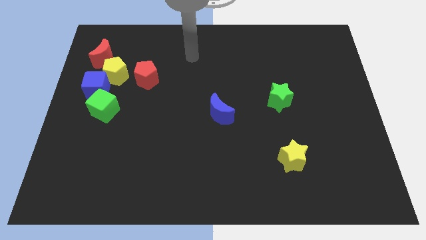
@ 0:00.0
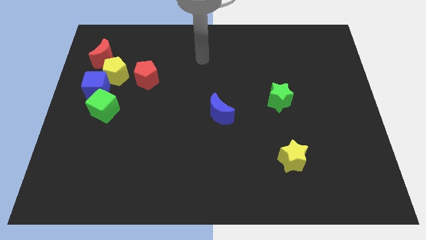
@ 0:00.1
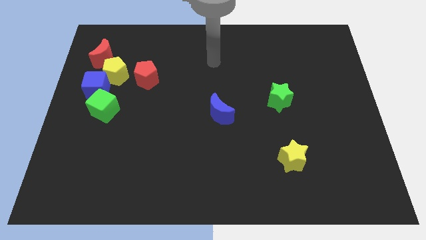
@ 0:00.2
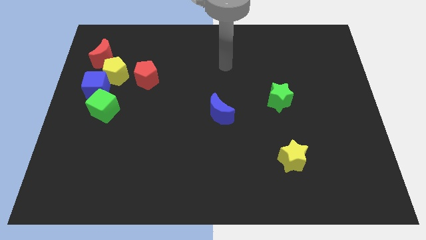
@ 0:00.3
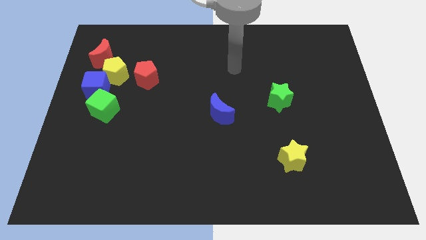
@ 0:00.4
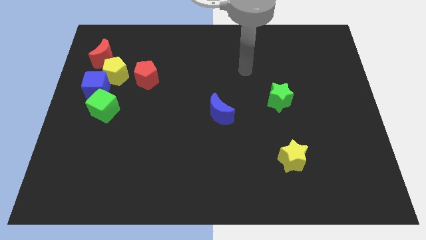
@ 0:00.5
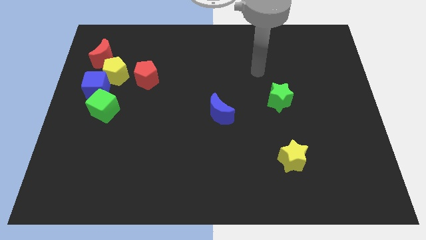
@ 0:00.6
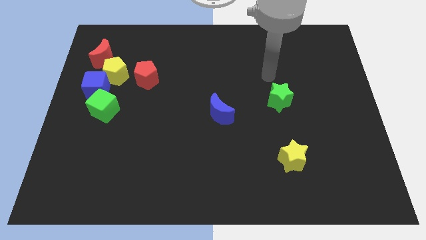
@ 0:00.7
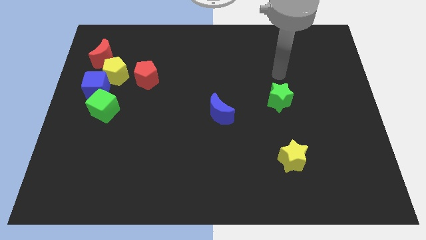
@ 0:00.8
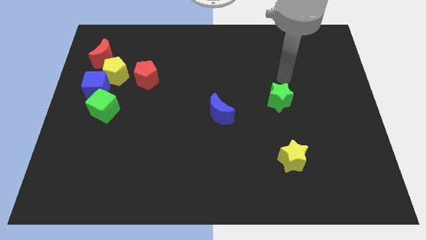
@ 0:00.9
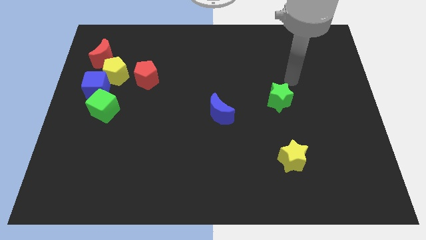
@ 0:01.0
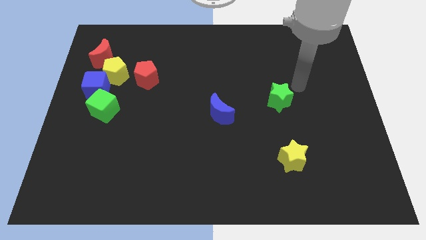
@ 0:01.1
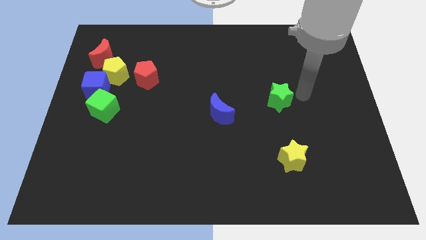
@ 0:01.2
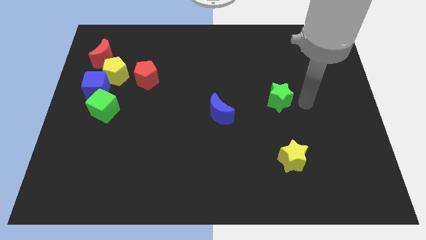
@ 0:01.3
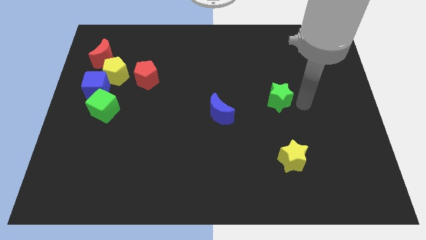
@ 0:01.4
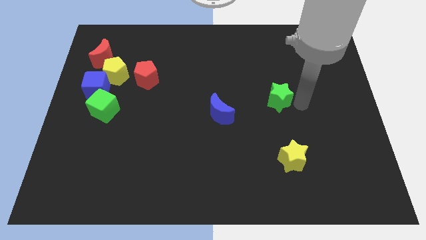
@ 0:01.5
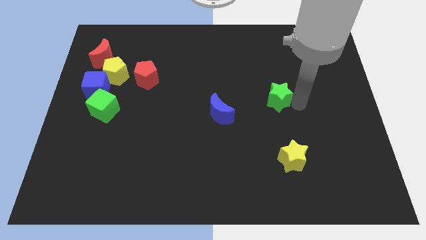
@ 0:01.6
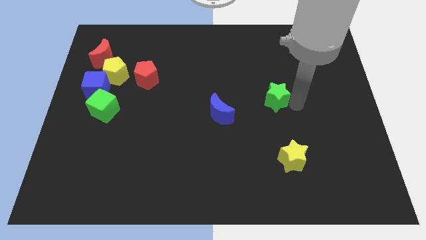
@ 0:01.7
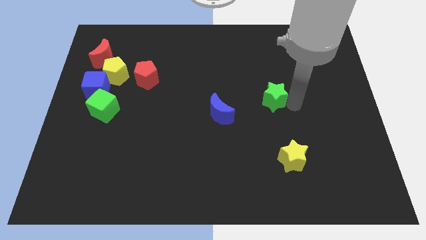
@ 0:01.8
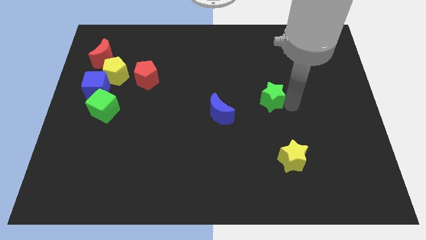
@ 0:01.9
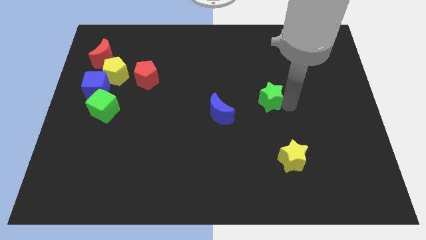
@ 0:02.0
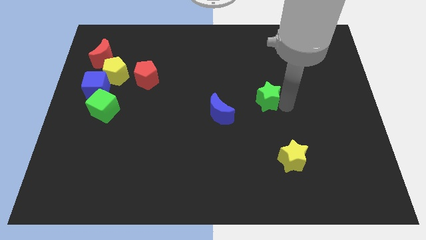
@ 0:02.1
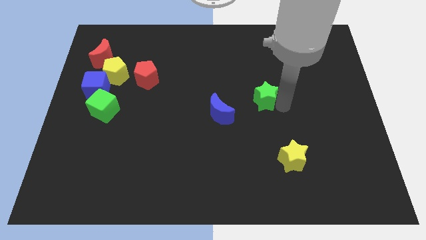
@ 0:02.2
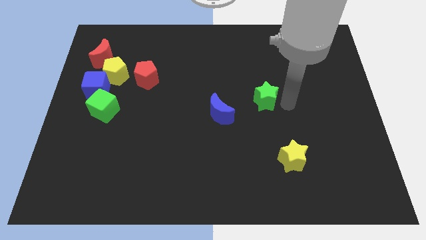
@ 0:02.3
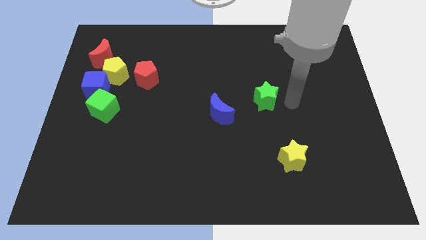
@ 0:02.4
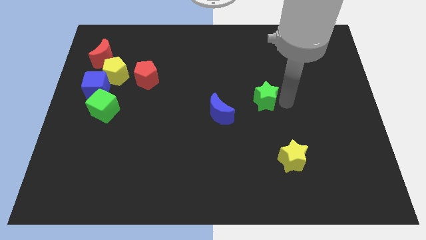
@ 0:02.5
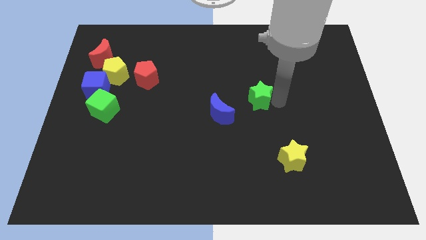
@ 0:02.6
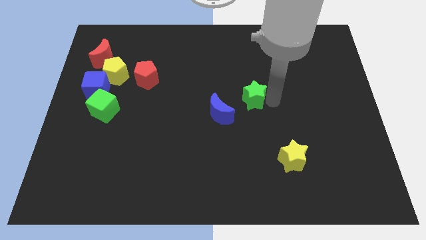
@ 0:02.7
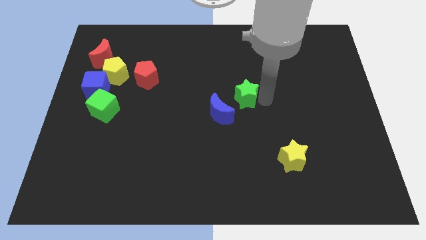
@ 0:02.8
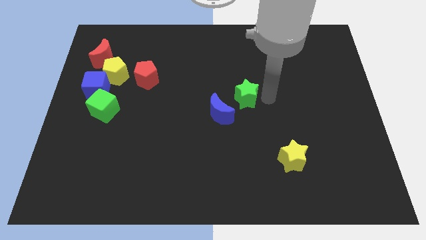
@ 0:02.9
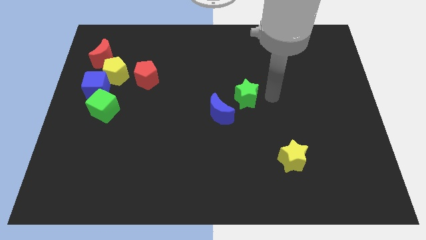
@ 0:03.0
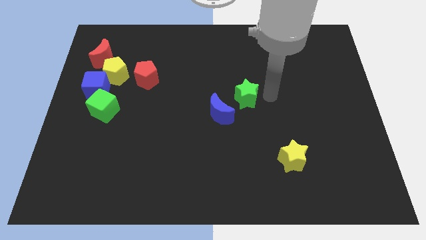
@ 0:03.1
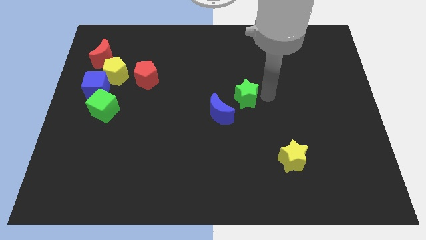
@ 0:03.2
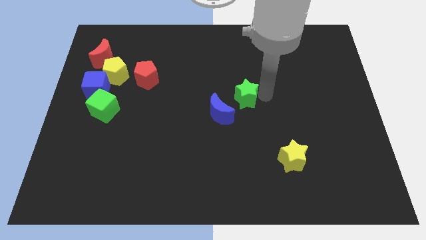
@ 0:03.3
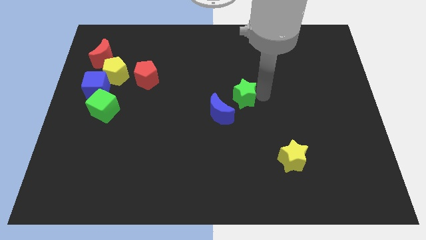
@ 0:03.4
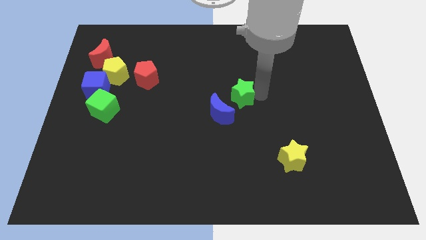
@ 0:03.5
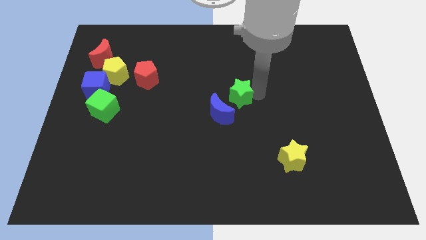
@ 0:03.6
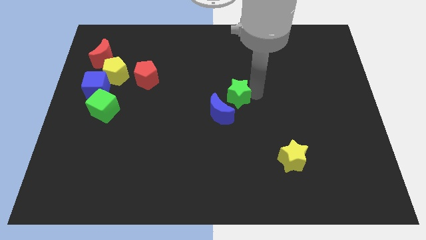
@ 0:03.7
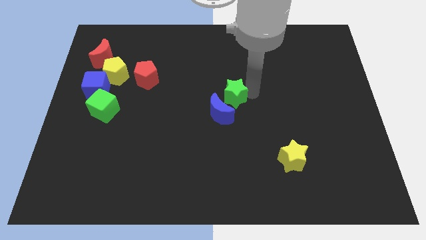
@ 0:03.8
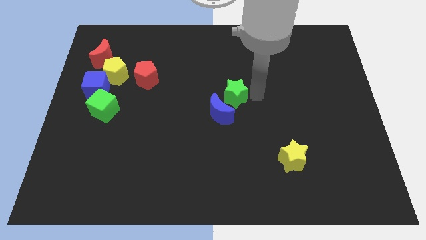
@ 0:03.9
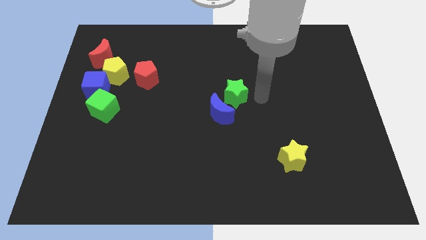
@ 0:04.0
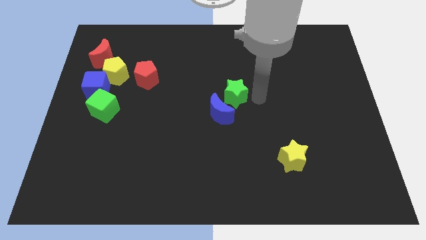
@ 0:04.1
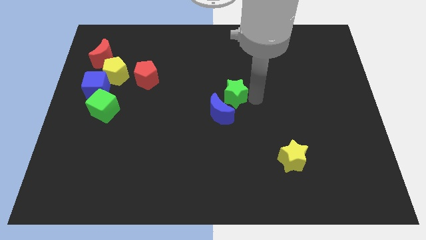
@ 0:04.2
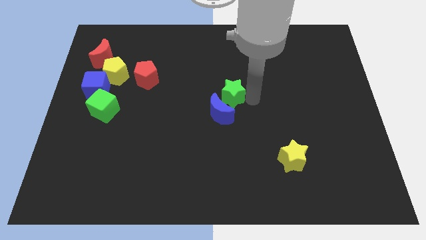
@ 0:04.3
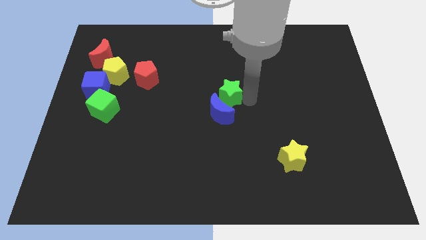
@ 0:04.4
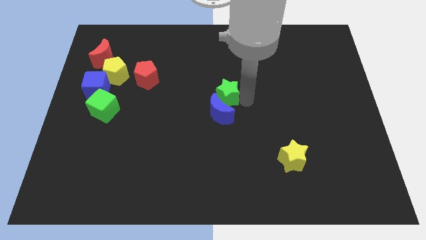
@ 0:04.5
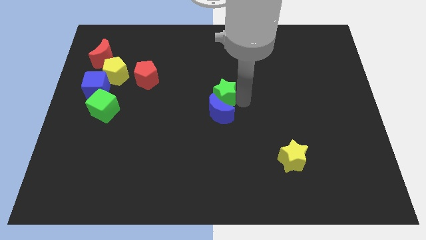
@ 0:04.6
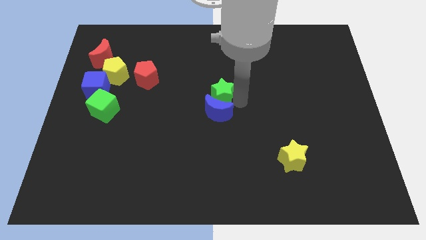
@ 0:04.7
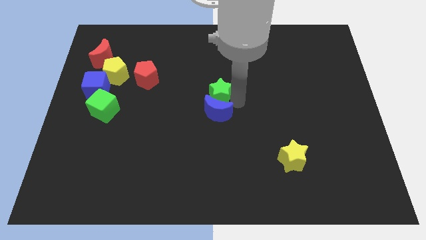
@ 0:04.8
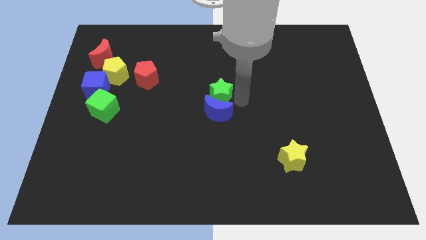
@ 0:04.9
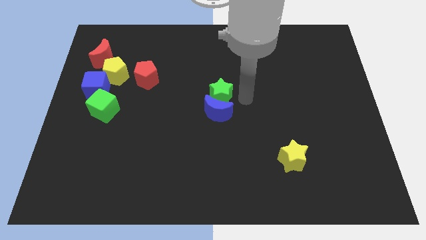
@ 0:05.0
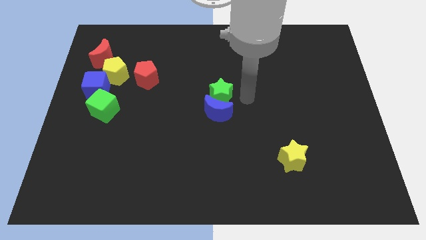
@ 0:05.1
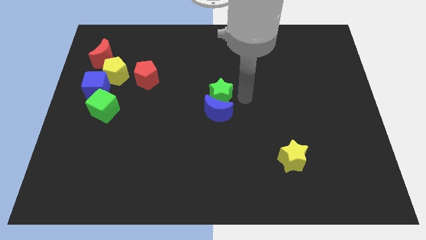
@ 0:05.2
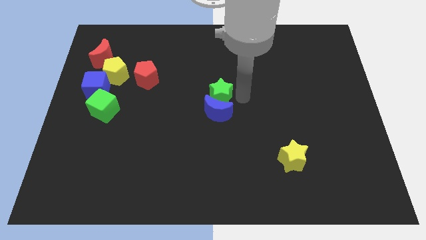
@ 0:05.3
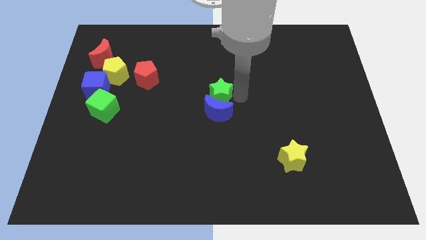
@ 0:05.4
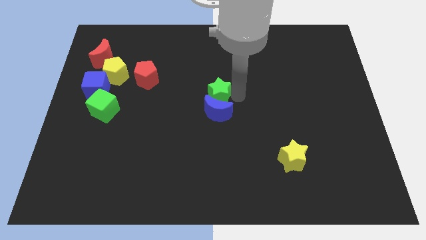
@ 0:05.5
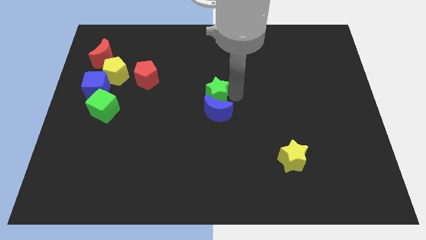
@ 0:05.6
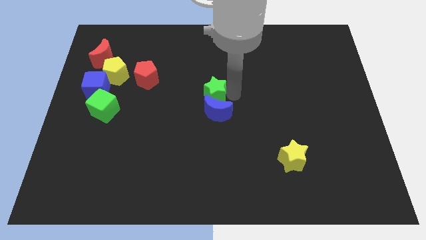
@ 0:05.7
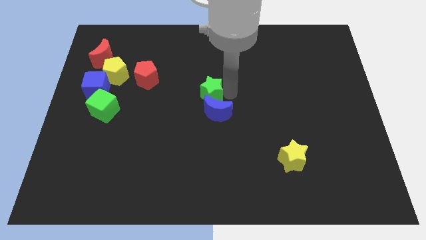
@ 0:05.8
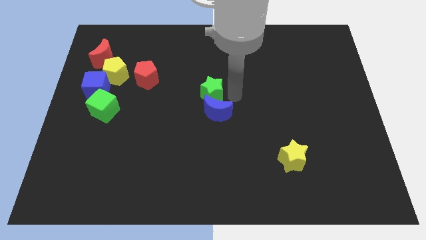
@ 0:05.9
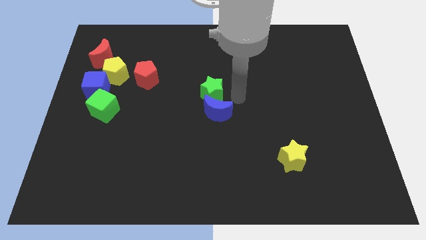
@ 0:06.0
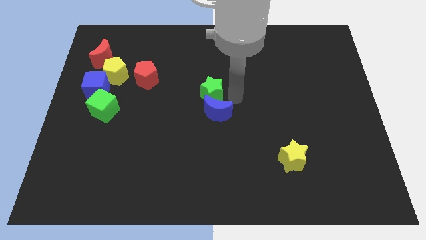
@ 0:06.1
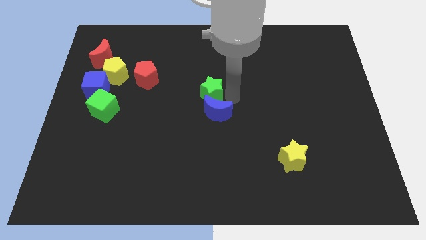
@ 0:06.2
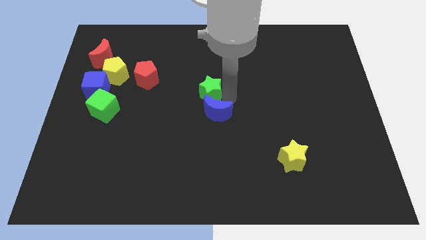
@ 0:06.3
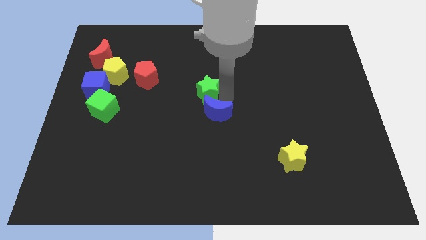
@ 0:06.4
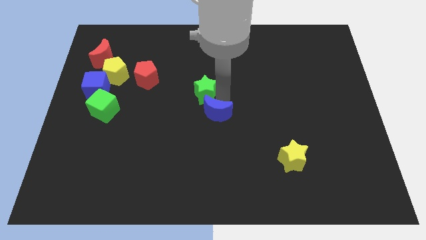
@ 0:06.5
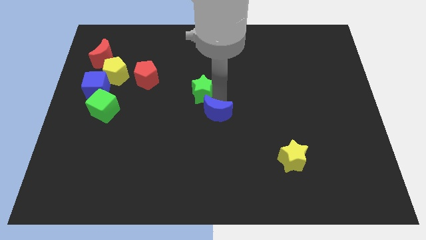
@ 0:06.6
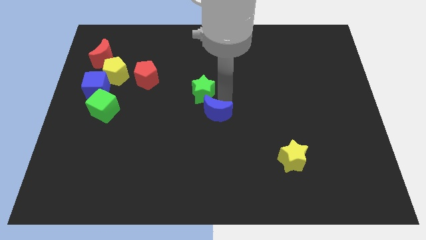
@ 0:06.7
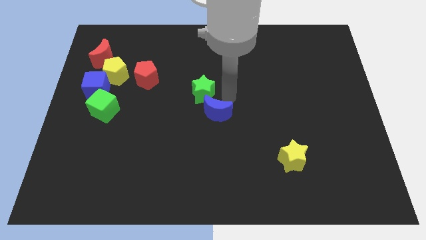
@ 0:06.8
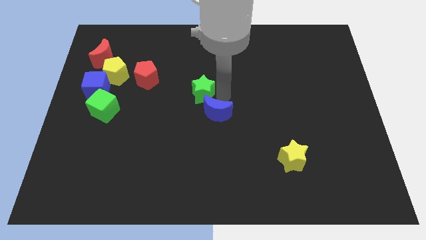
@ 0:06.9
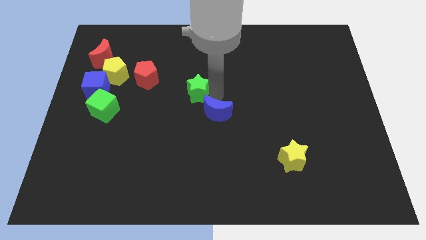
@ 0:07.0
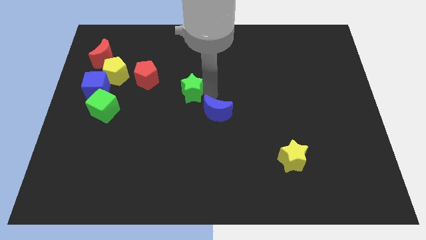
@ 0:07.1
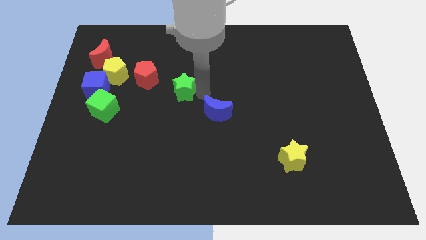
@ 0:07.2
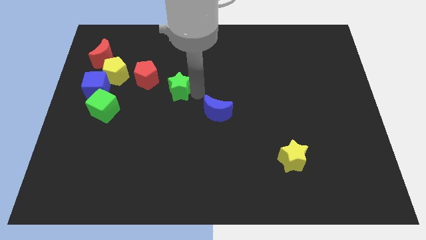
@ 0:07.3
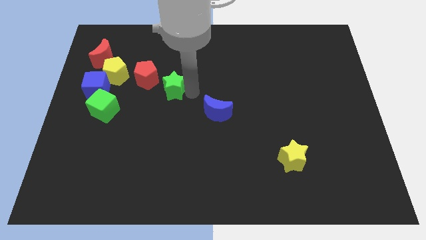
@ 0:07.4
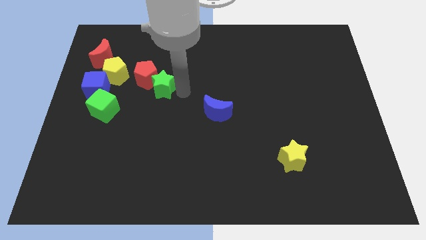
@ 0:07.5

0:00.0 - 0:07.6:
move the green star to the red pentagon
